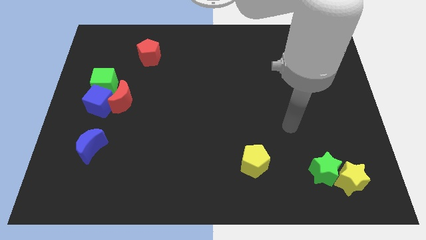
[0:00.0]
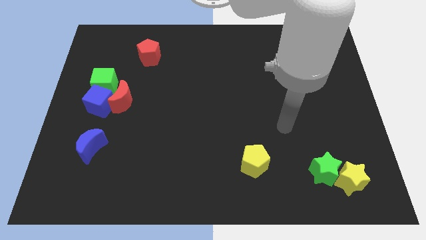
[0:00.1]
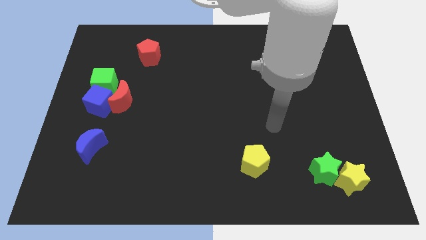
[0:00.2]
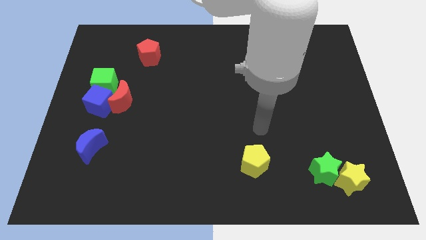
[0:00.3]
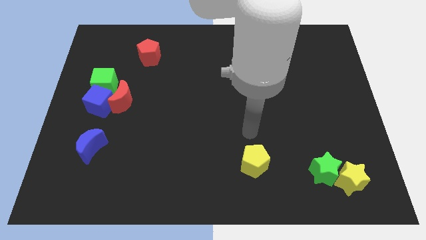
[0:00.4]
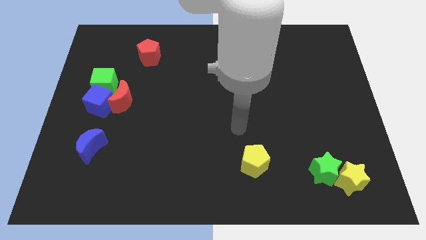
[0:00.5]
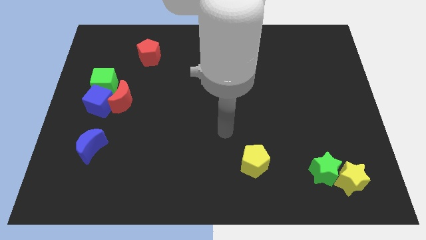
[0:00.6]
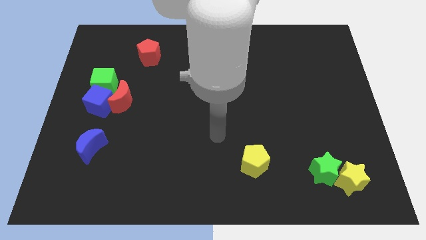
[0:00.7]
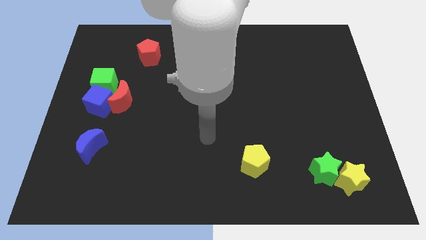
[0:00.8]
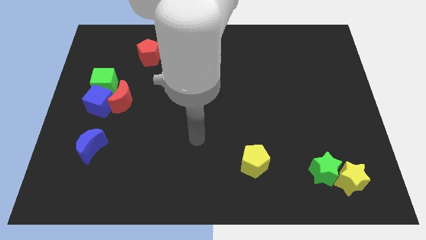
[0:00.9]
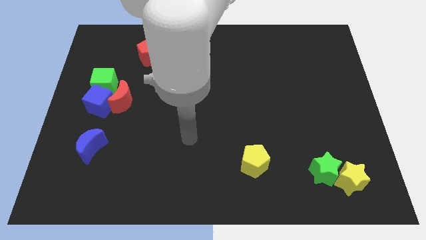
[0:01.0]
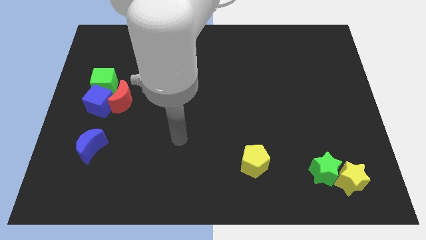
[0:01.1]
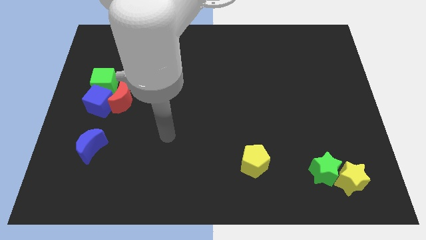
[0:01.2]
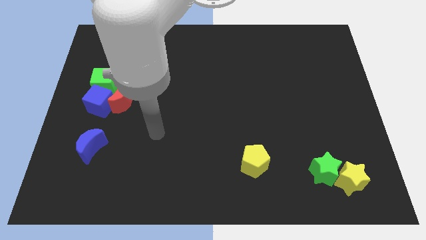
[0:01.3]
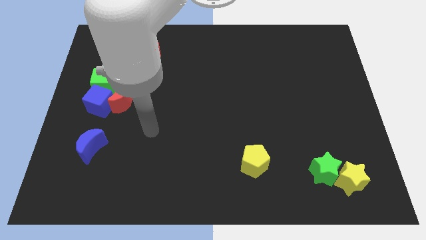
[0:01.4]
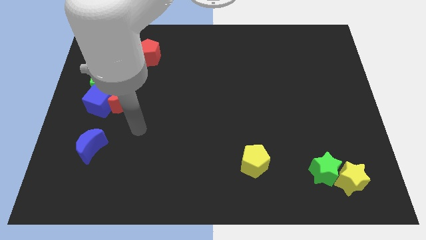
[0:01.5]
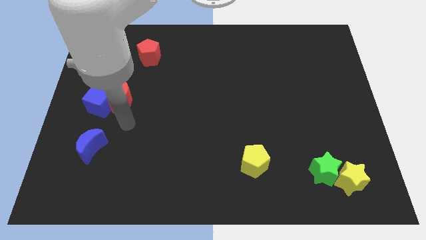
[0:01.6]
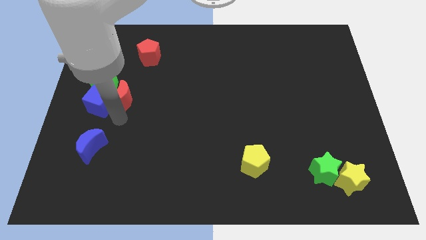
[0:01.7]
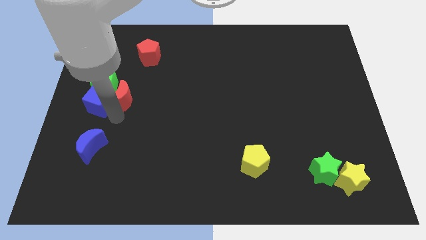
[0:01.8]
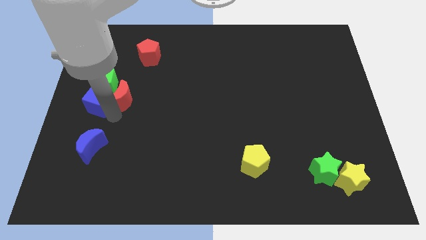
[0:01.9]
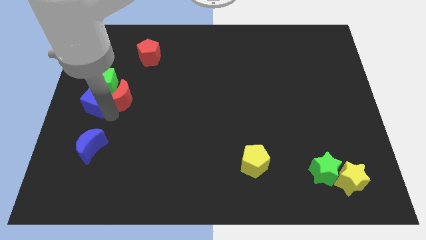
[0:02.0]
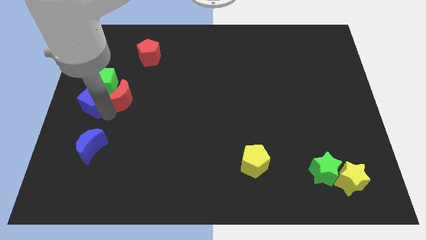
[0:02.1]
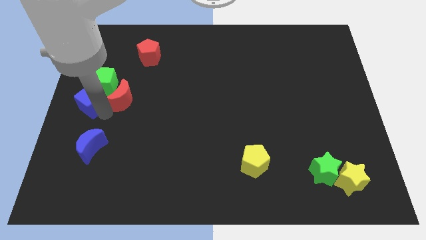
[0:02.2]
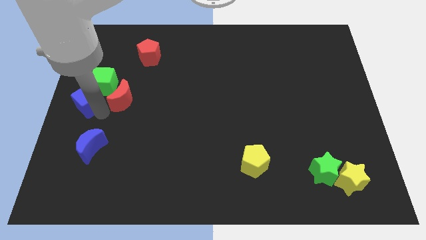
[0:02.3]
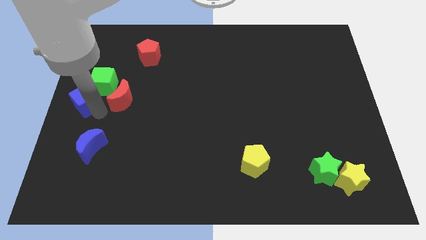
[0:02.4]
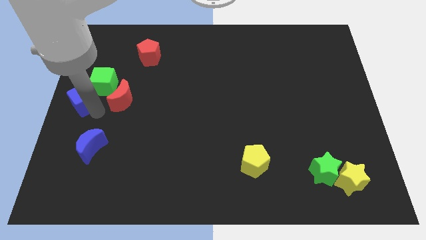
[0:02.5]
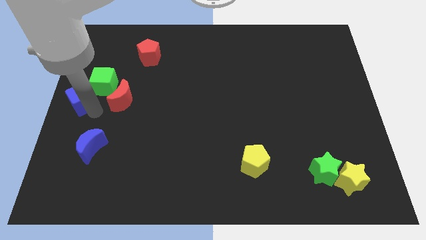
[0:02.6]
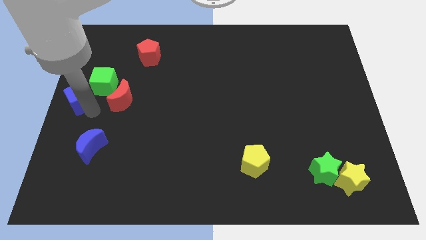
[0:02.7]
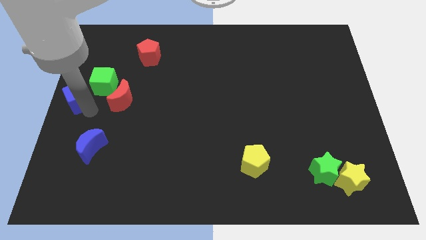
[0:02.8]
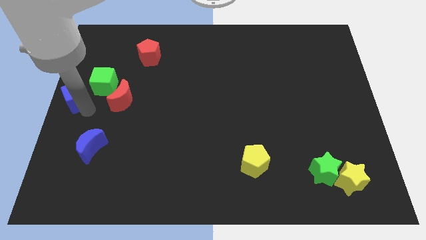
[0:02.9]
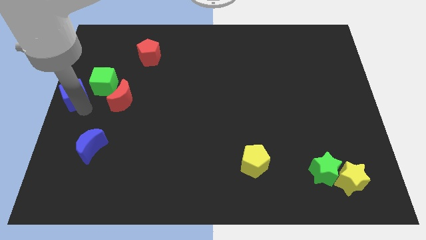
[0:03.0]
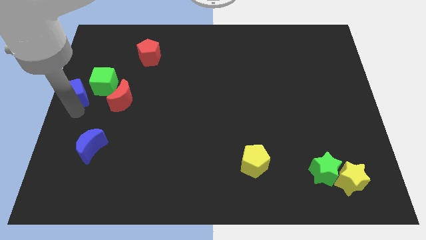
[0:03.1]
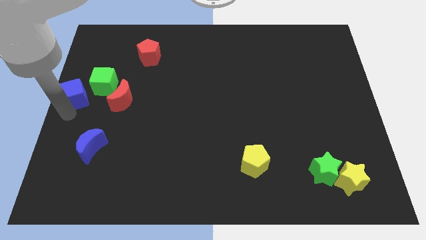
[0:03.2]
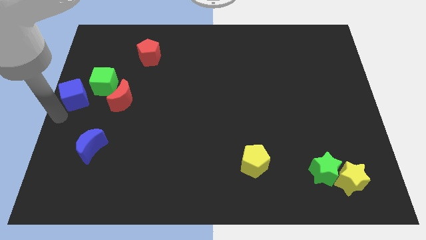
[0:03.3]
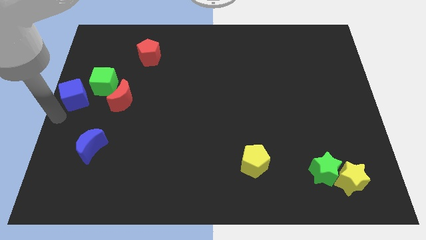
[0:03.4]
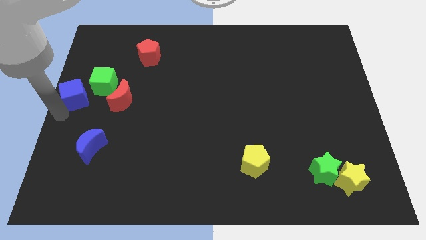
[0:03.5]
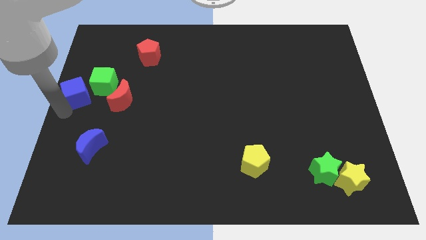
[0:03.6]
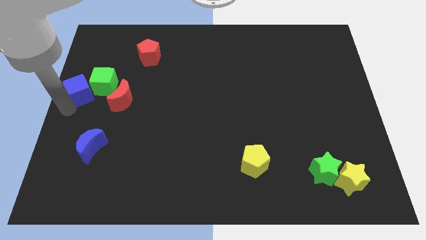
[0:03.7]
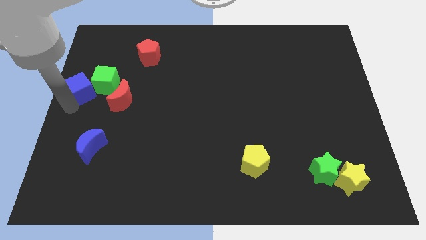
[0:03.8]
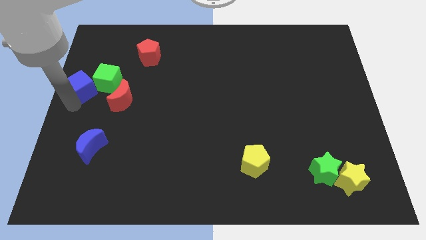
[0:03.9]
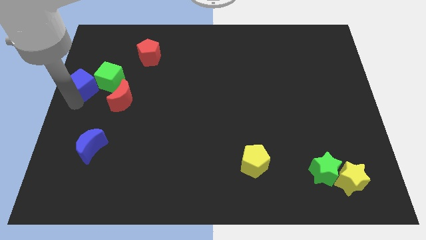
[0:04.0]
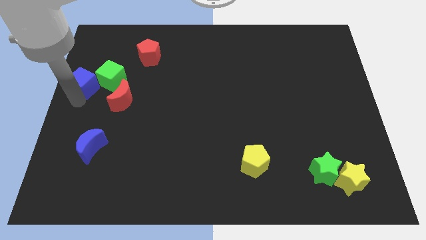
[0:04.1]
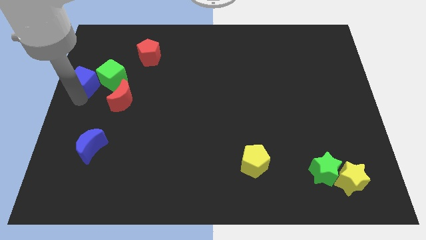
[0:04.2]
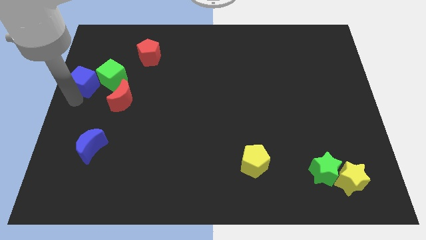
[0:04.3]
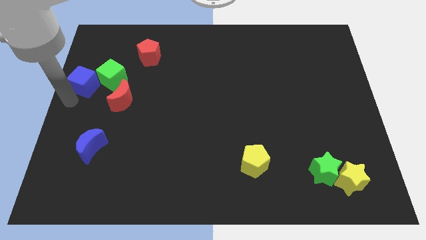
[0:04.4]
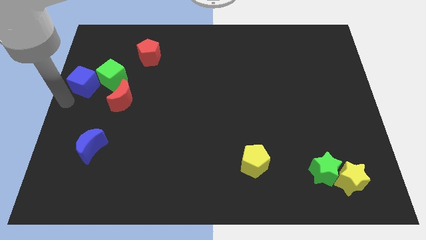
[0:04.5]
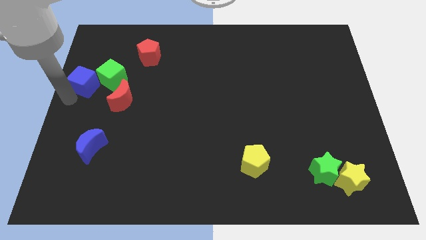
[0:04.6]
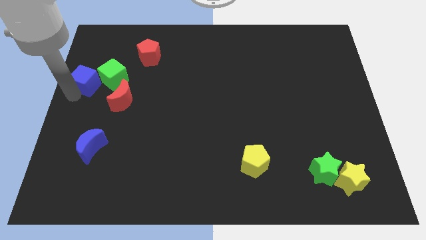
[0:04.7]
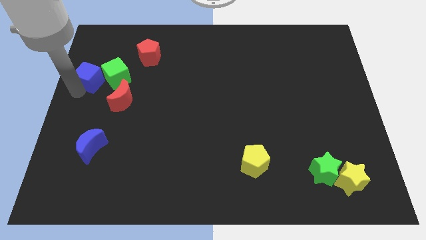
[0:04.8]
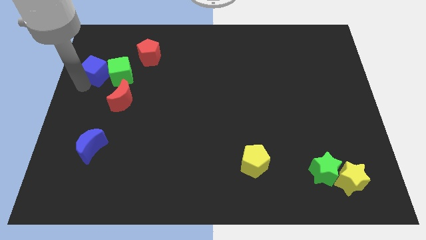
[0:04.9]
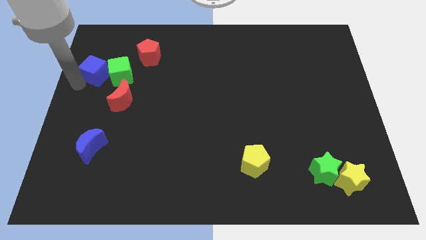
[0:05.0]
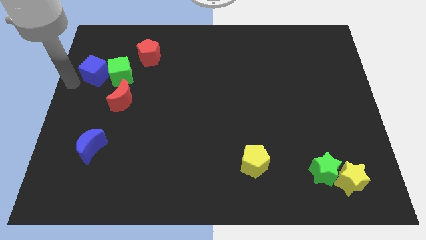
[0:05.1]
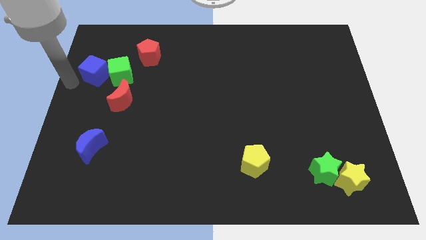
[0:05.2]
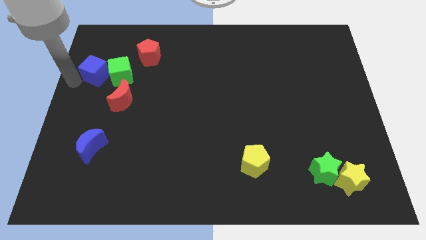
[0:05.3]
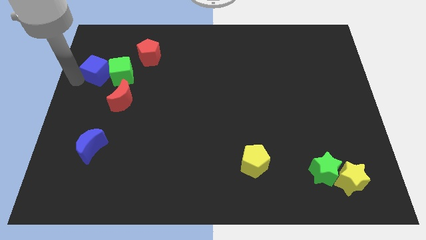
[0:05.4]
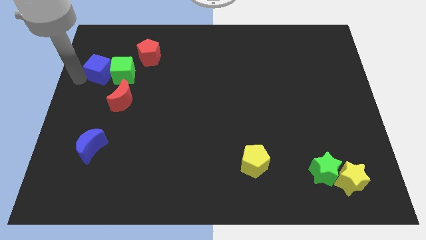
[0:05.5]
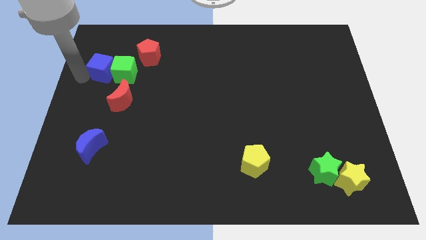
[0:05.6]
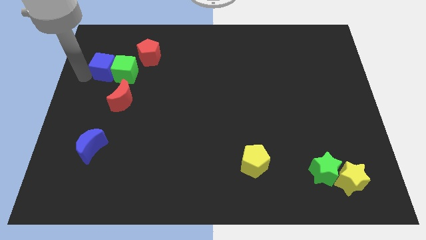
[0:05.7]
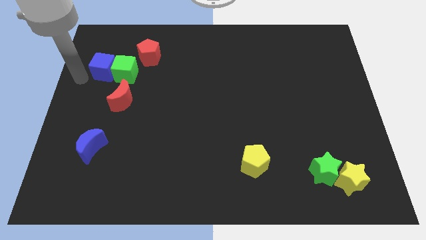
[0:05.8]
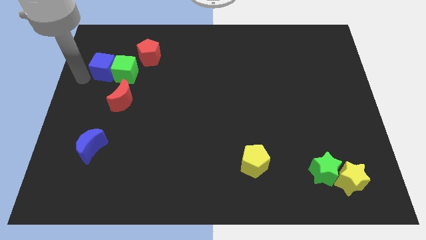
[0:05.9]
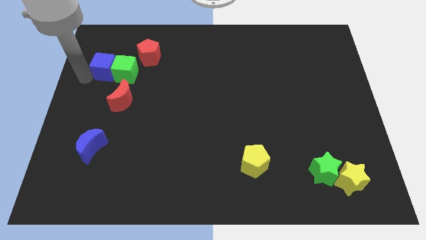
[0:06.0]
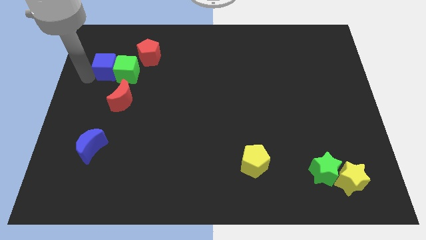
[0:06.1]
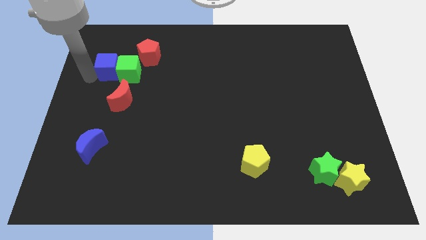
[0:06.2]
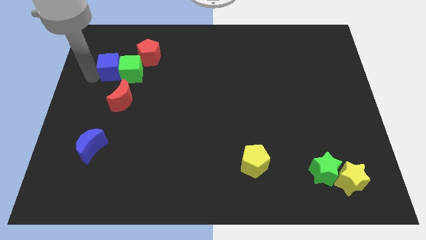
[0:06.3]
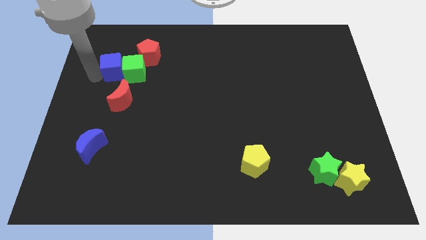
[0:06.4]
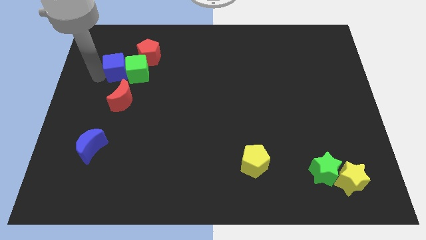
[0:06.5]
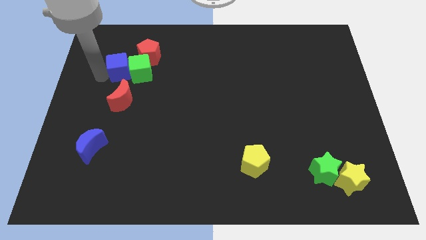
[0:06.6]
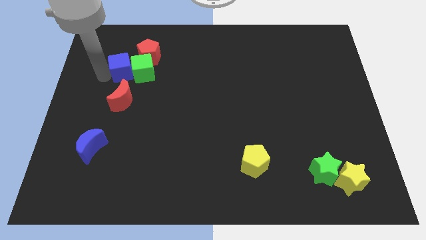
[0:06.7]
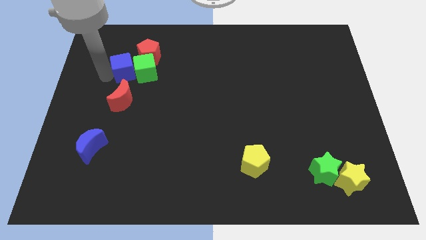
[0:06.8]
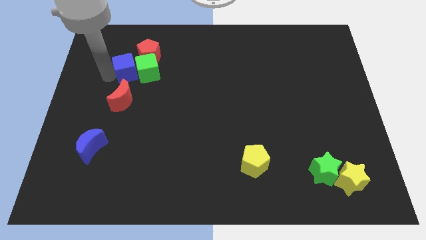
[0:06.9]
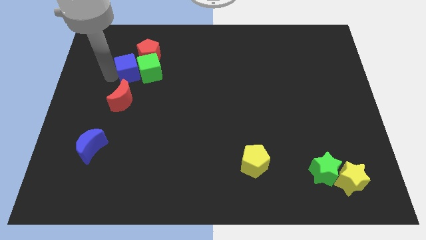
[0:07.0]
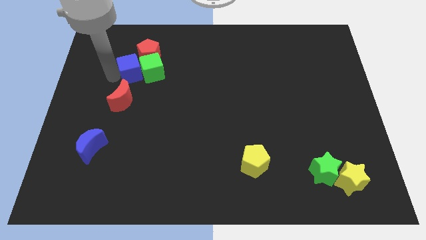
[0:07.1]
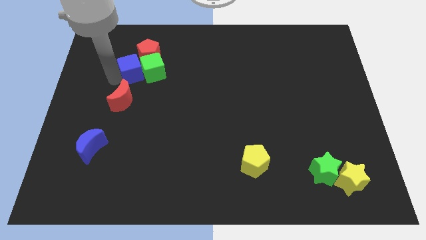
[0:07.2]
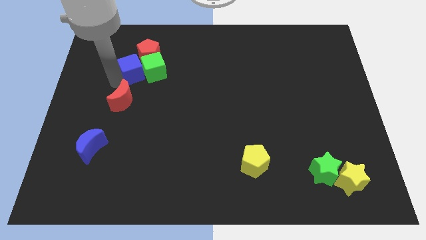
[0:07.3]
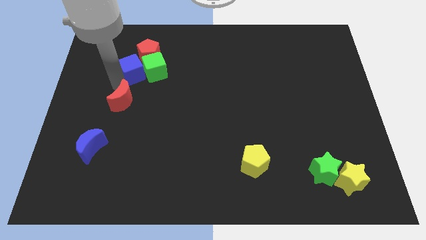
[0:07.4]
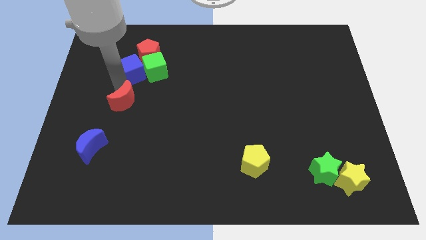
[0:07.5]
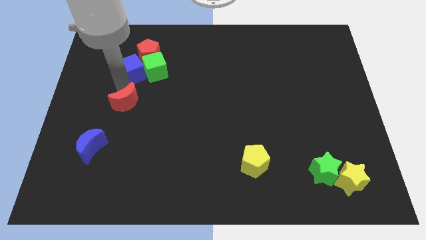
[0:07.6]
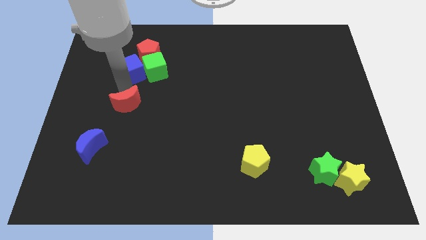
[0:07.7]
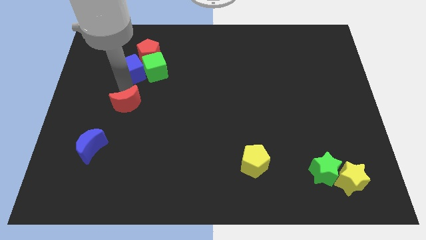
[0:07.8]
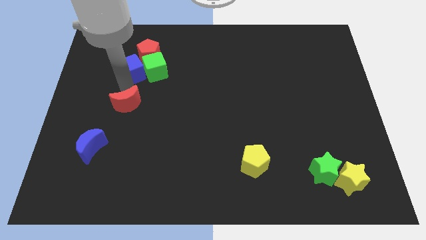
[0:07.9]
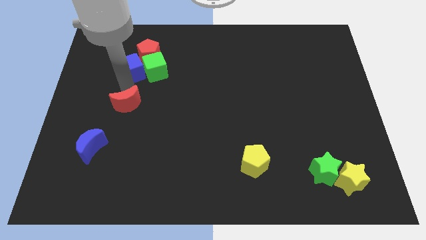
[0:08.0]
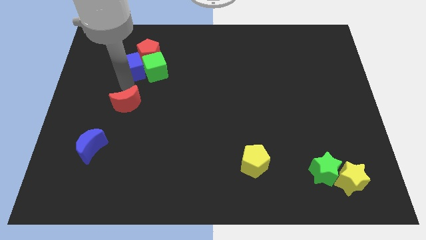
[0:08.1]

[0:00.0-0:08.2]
slide the blue cube towards the red pentagon
